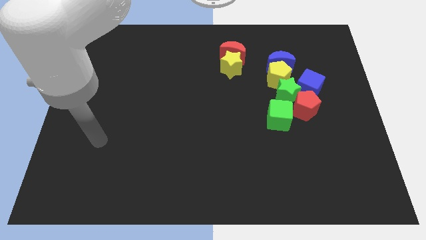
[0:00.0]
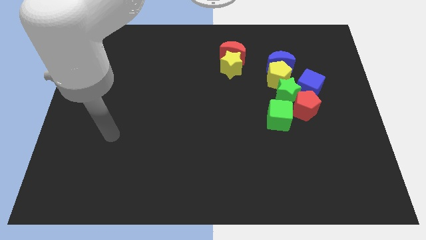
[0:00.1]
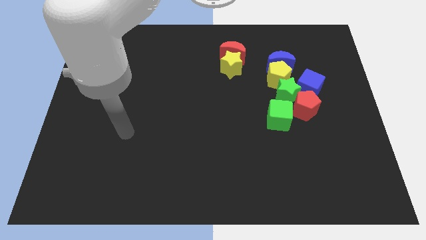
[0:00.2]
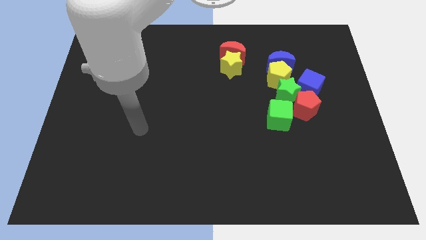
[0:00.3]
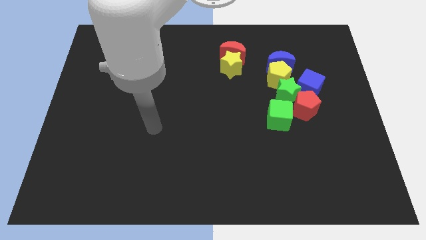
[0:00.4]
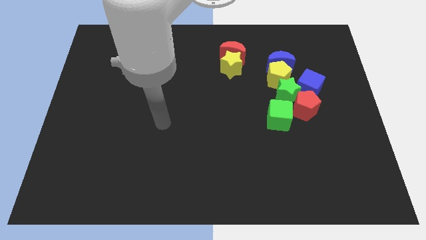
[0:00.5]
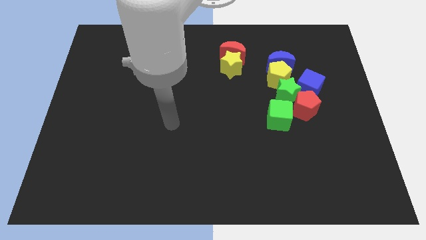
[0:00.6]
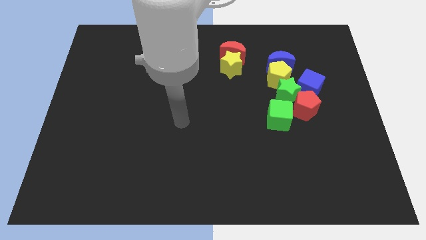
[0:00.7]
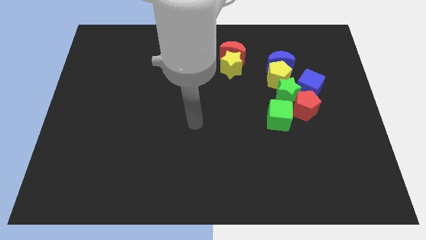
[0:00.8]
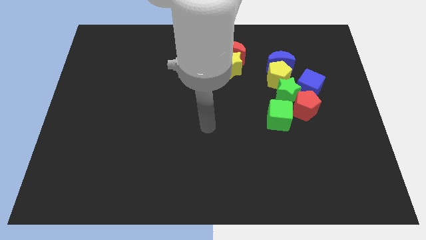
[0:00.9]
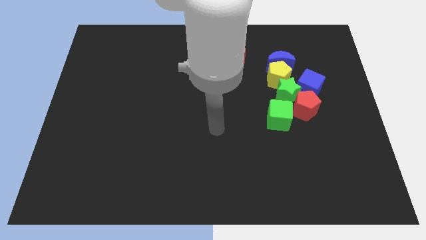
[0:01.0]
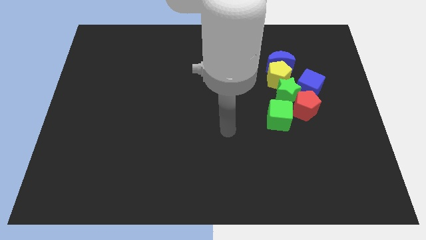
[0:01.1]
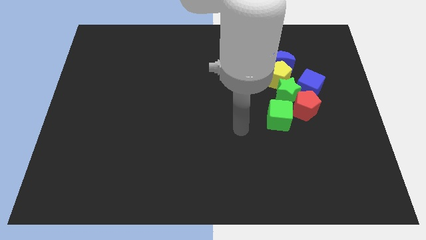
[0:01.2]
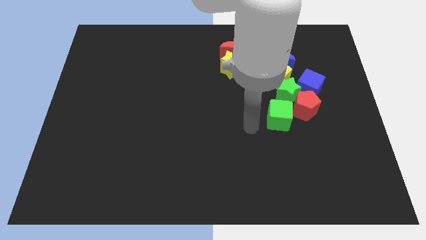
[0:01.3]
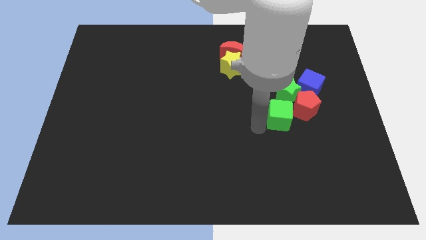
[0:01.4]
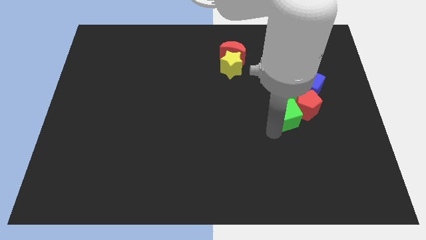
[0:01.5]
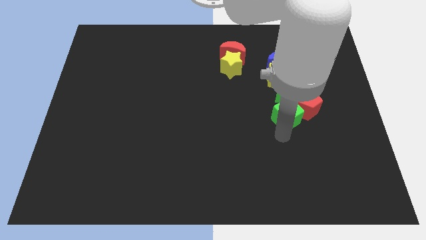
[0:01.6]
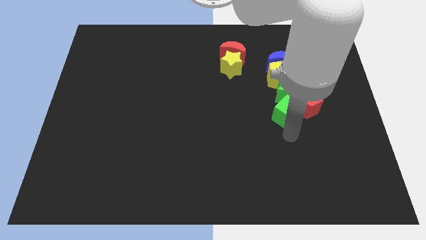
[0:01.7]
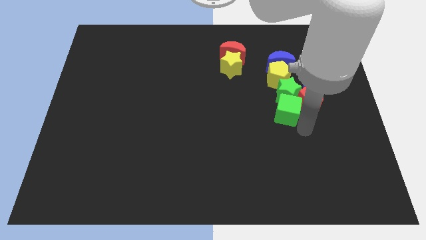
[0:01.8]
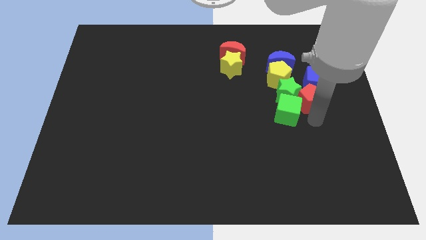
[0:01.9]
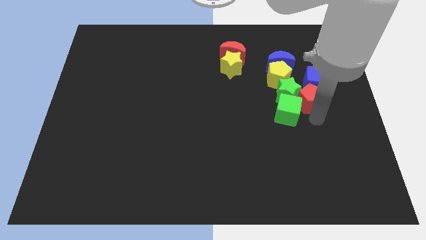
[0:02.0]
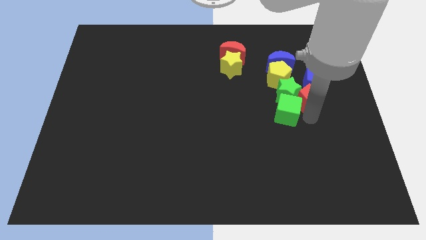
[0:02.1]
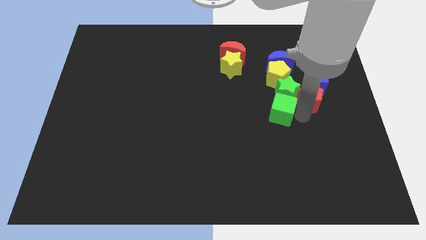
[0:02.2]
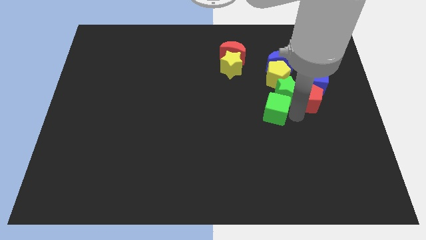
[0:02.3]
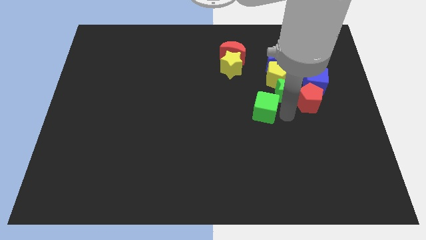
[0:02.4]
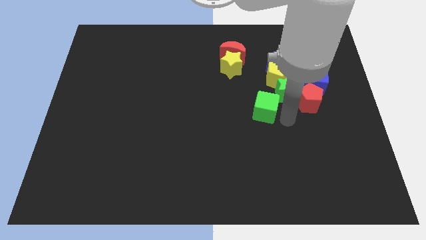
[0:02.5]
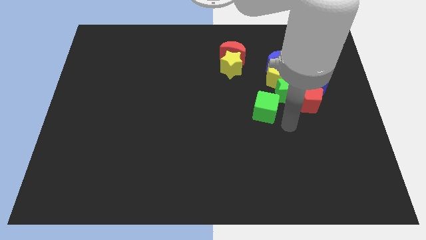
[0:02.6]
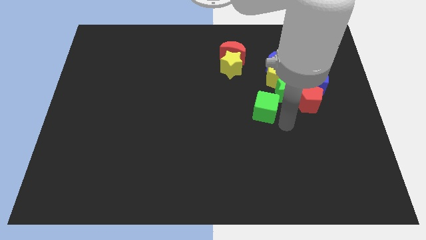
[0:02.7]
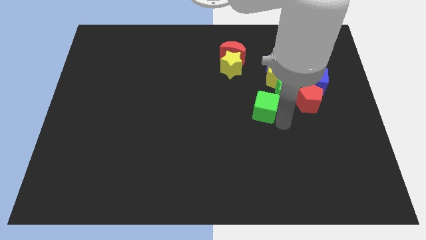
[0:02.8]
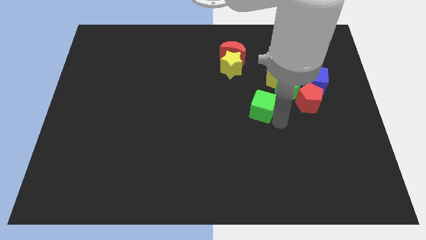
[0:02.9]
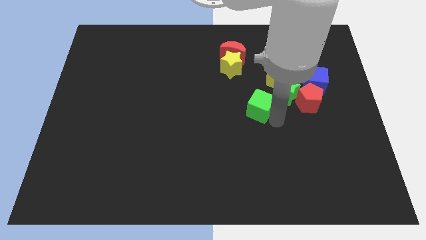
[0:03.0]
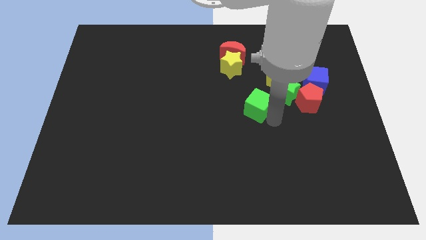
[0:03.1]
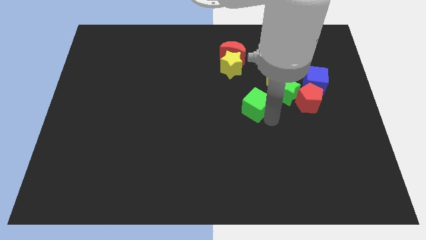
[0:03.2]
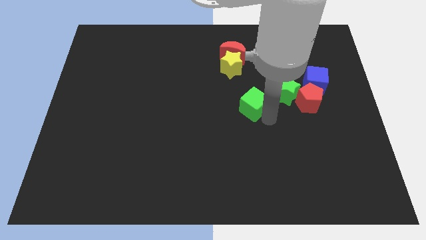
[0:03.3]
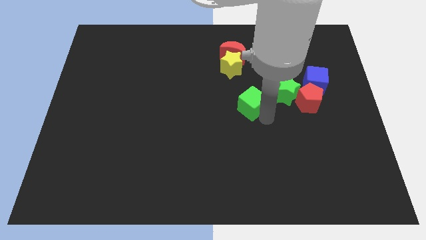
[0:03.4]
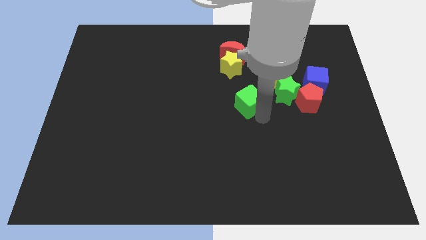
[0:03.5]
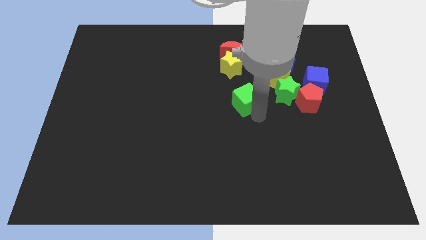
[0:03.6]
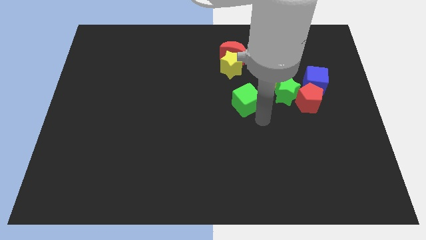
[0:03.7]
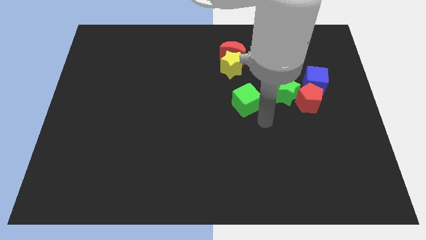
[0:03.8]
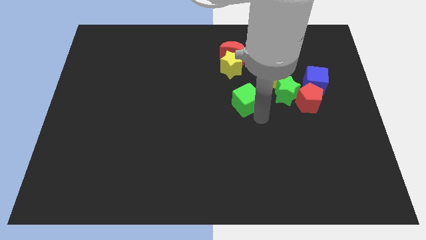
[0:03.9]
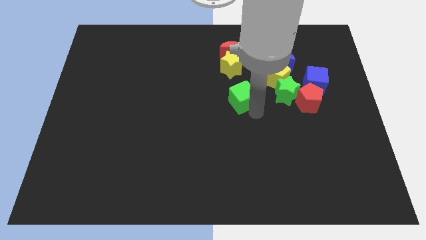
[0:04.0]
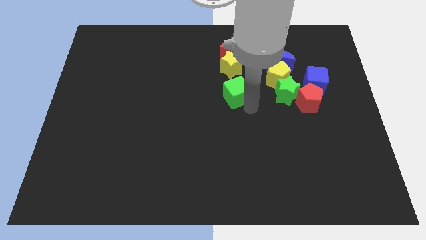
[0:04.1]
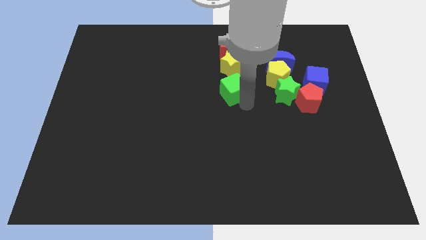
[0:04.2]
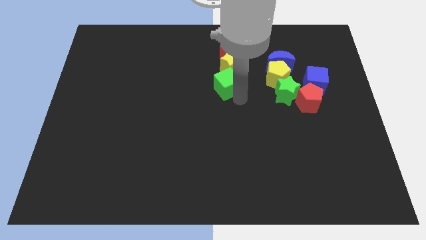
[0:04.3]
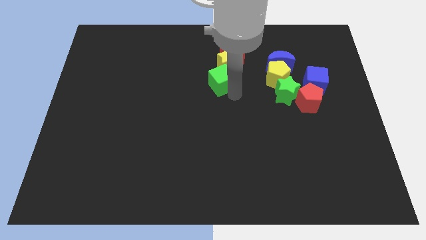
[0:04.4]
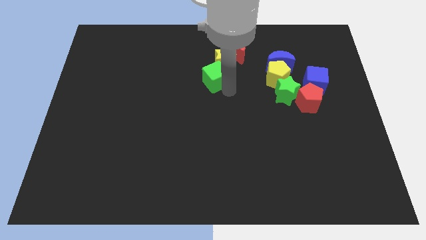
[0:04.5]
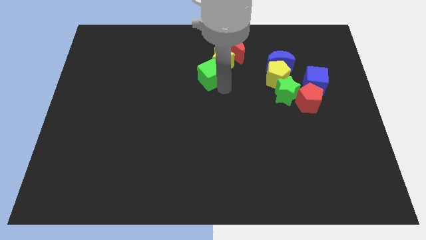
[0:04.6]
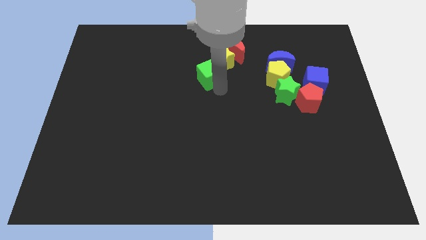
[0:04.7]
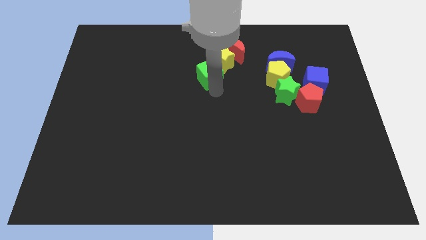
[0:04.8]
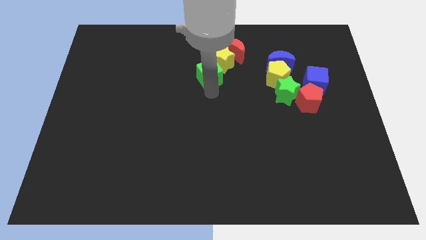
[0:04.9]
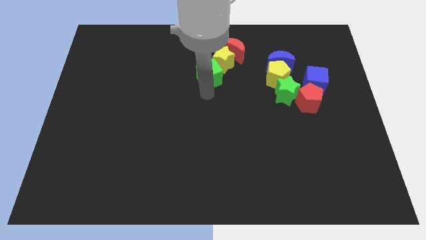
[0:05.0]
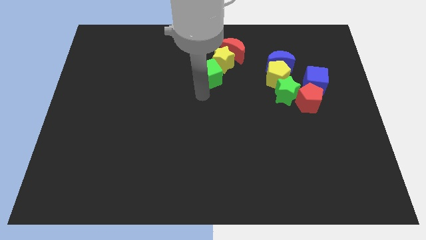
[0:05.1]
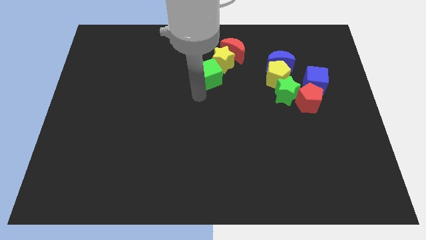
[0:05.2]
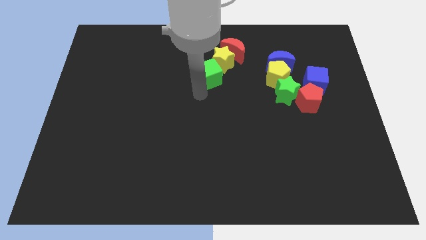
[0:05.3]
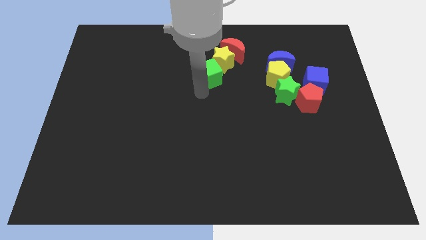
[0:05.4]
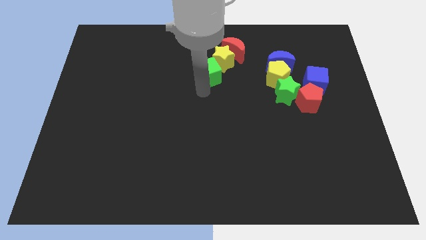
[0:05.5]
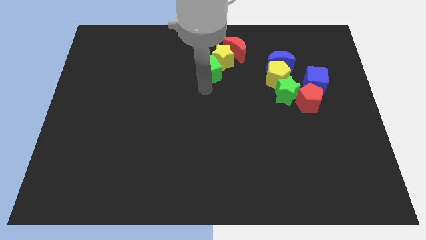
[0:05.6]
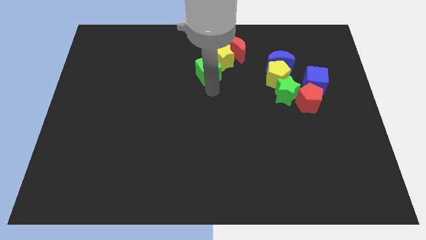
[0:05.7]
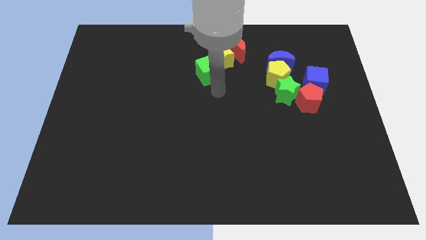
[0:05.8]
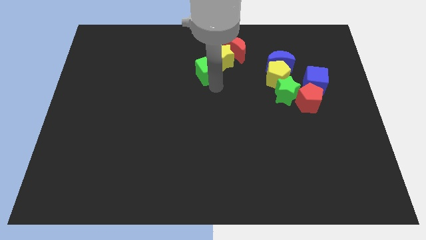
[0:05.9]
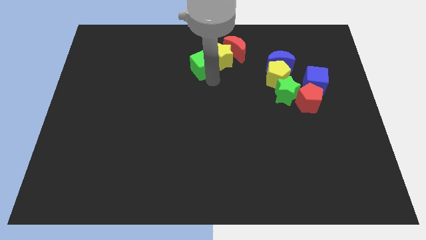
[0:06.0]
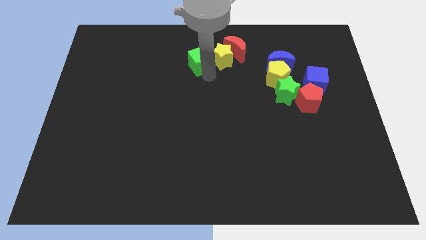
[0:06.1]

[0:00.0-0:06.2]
slide the green cube to the left side of the red moon

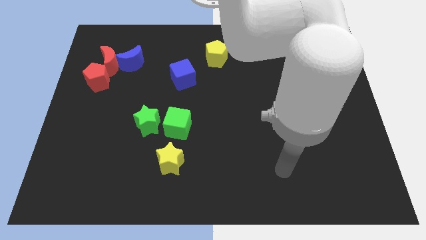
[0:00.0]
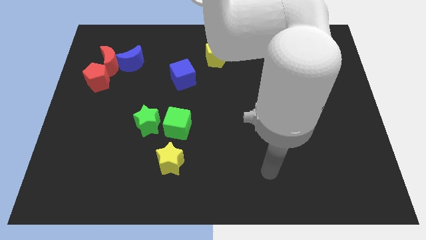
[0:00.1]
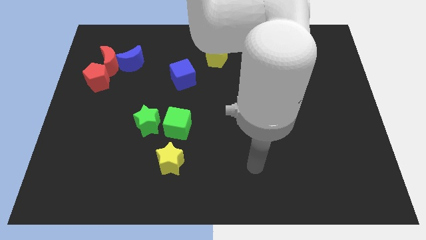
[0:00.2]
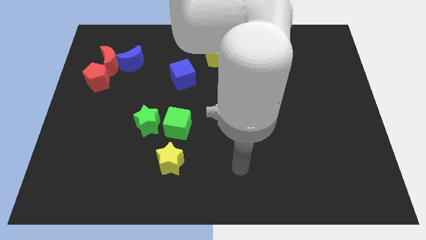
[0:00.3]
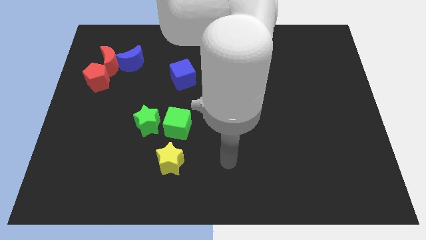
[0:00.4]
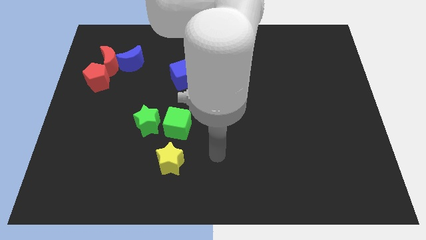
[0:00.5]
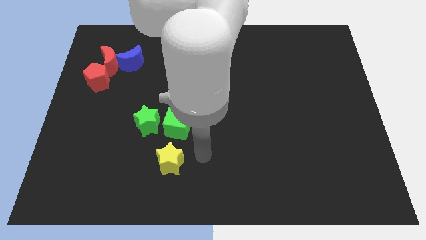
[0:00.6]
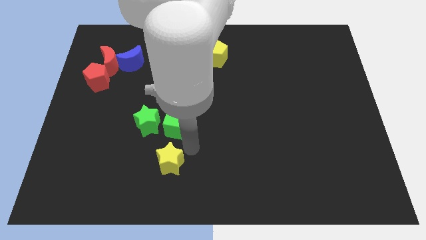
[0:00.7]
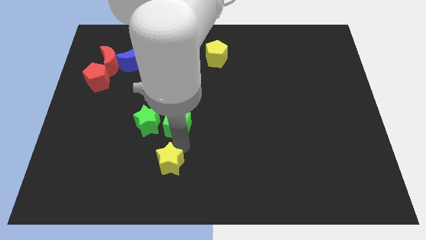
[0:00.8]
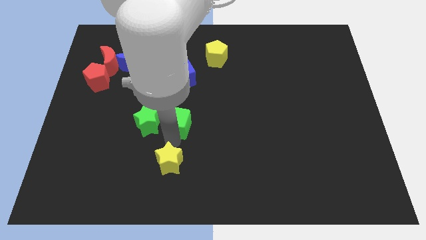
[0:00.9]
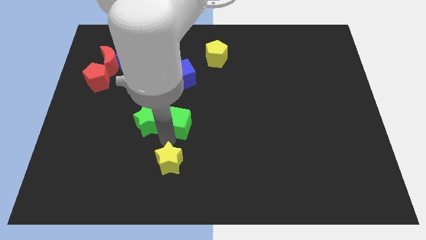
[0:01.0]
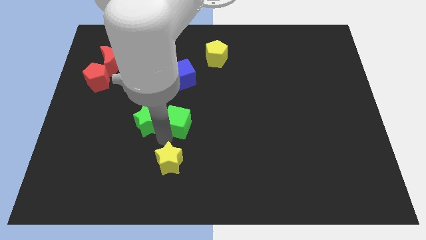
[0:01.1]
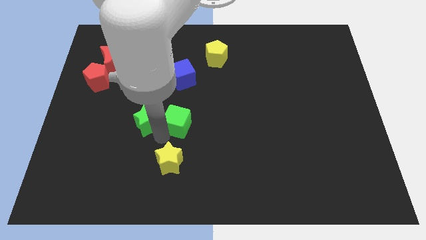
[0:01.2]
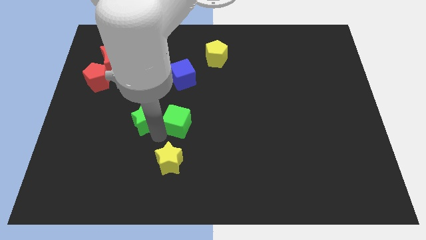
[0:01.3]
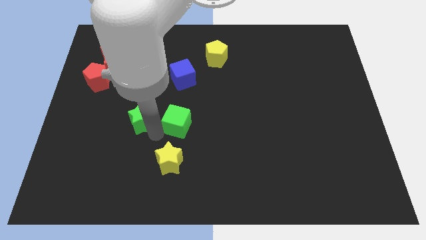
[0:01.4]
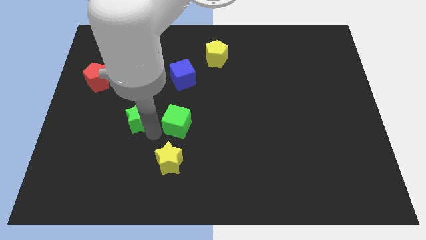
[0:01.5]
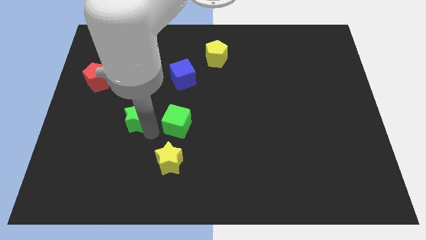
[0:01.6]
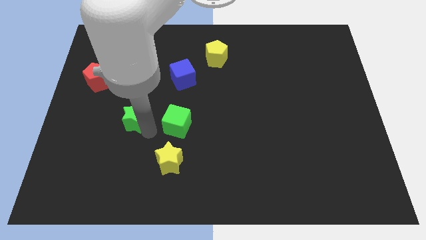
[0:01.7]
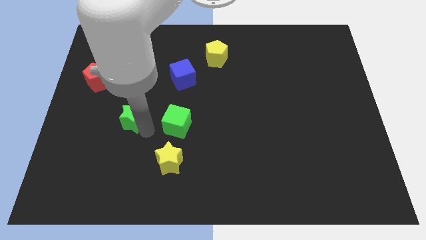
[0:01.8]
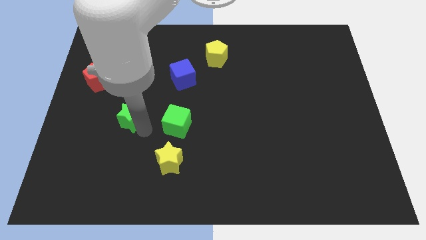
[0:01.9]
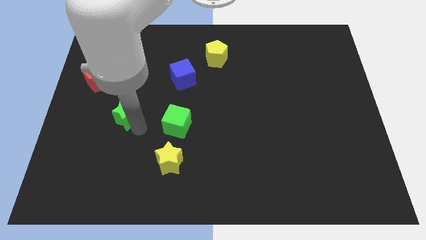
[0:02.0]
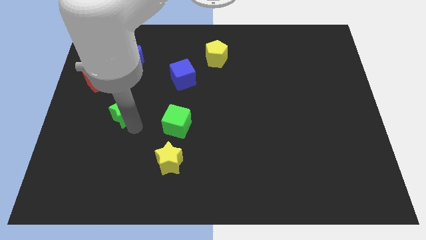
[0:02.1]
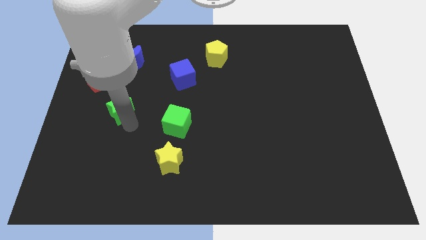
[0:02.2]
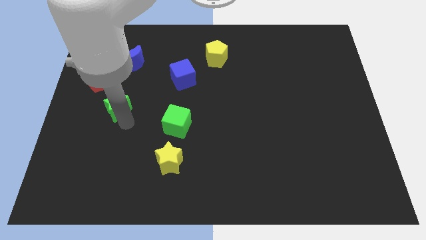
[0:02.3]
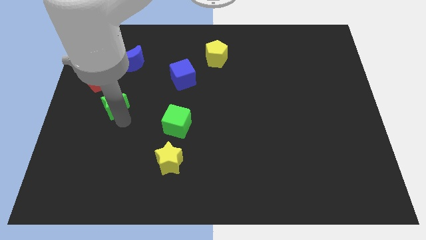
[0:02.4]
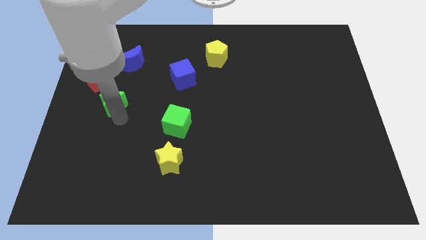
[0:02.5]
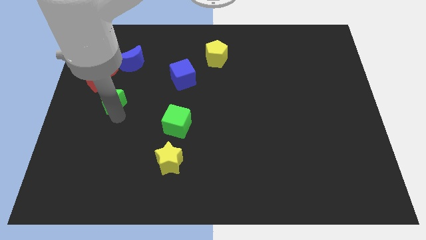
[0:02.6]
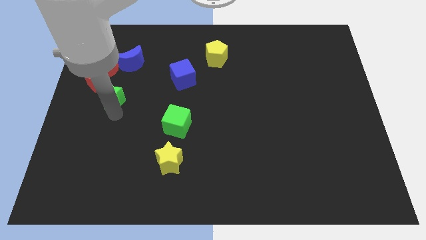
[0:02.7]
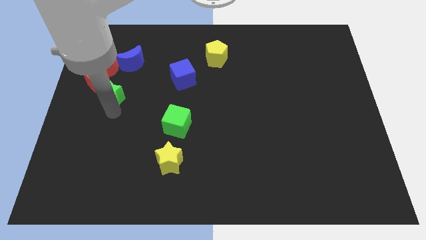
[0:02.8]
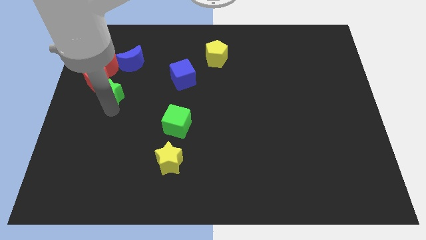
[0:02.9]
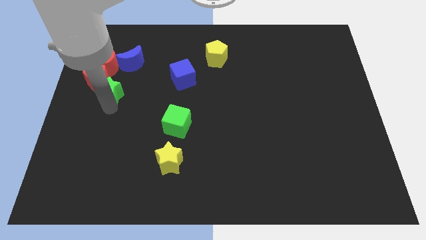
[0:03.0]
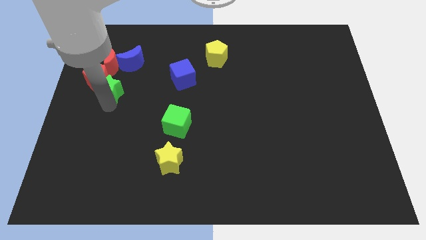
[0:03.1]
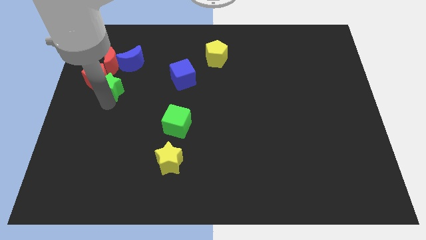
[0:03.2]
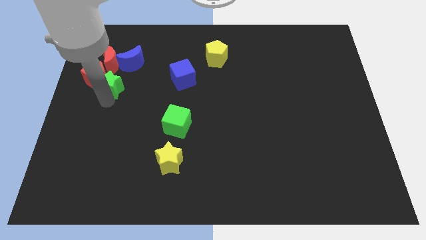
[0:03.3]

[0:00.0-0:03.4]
put the green star to the bottom right of the red moon
